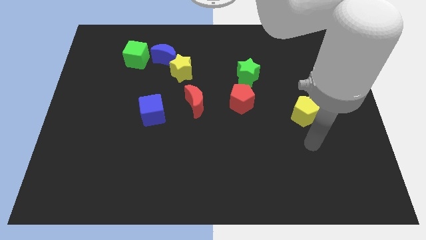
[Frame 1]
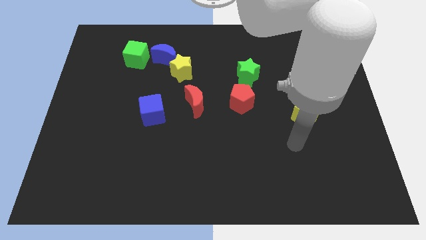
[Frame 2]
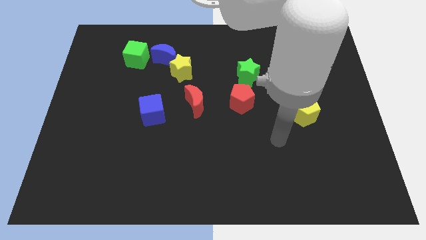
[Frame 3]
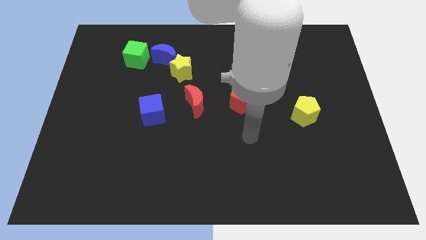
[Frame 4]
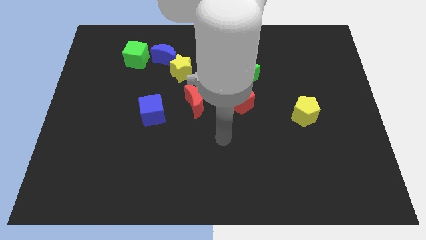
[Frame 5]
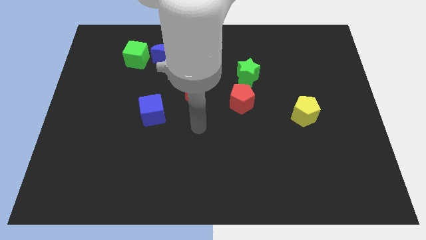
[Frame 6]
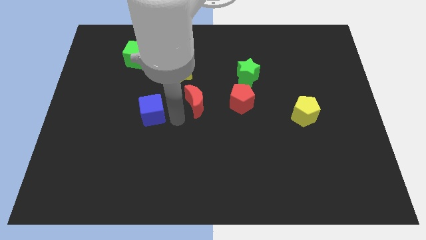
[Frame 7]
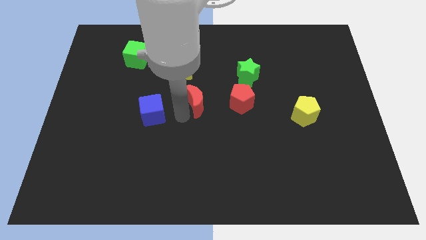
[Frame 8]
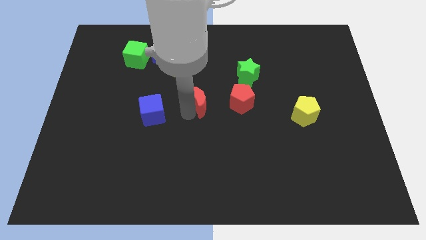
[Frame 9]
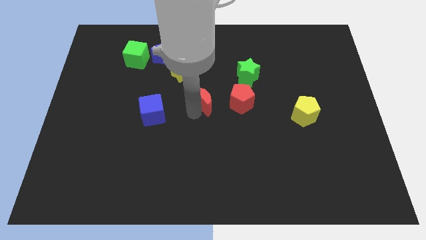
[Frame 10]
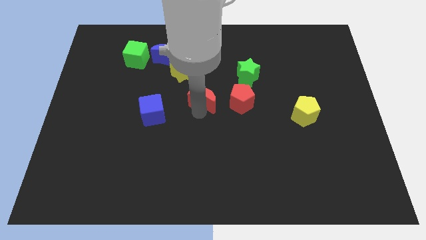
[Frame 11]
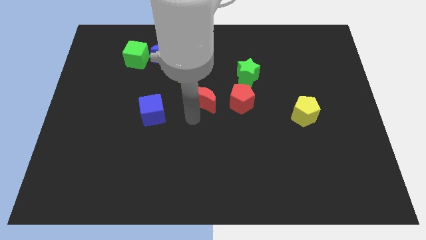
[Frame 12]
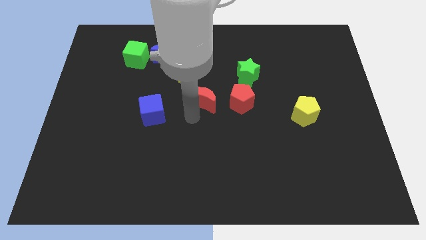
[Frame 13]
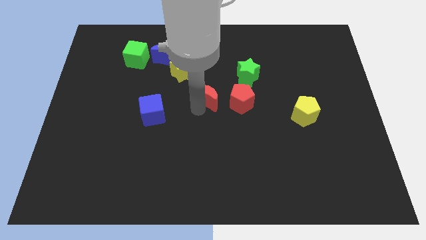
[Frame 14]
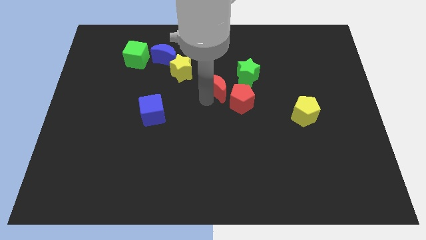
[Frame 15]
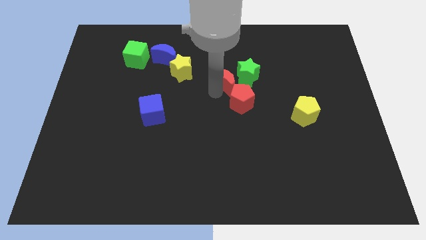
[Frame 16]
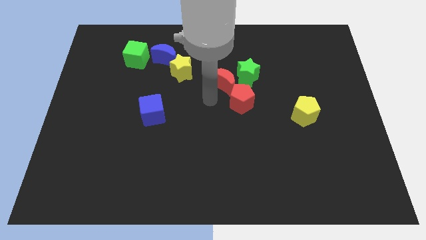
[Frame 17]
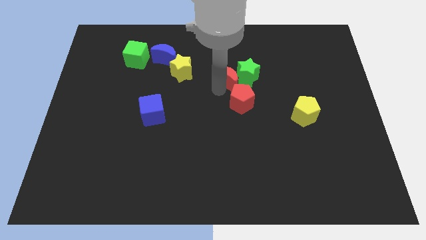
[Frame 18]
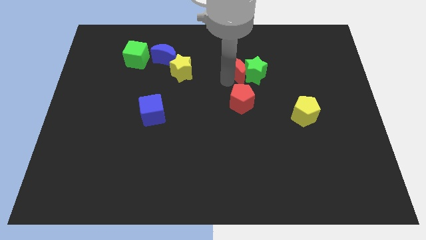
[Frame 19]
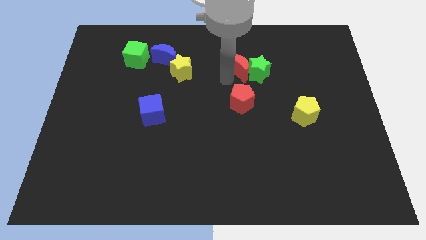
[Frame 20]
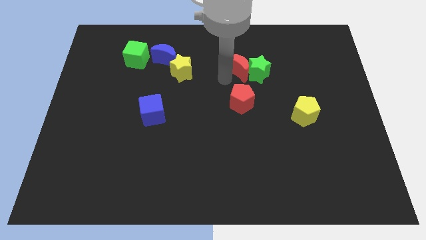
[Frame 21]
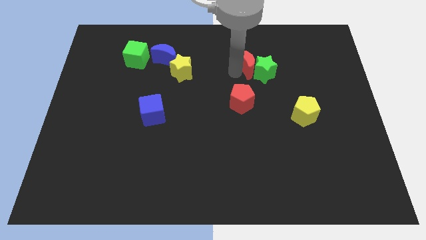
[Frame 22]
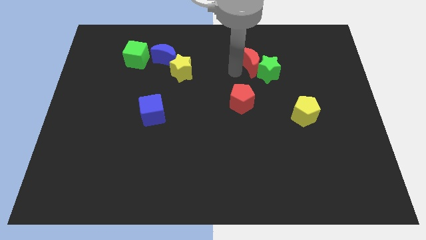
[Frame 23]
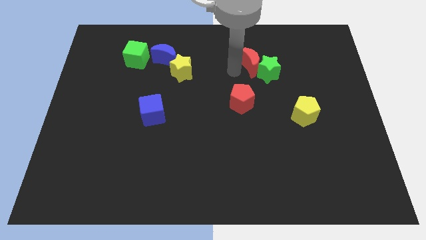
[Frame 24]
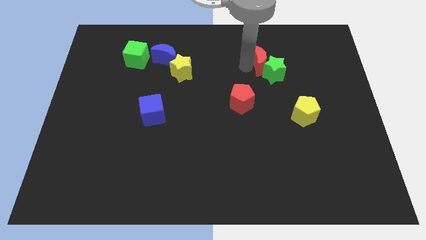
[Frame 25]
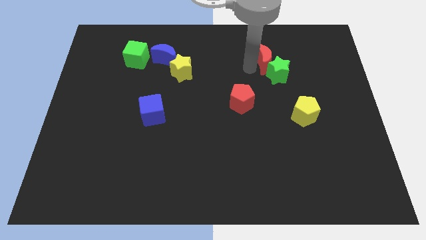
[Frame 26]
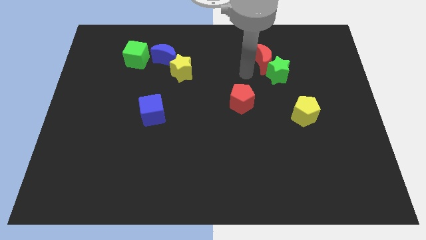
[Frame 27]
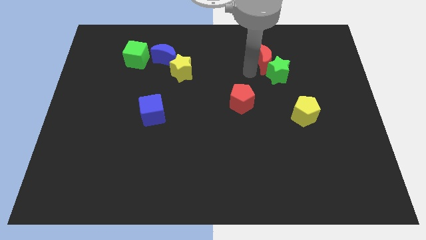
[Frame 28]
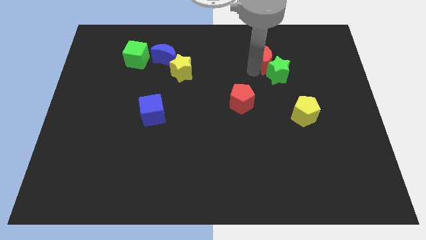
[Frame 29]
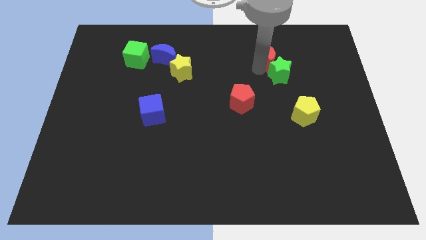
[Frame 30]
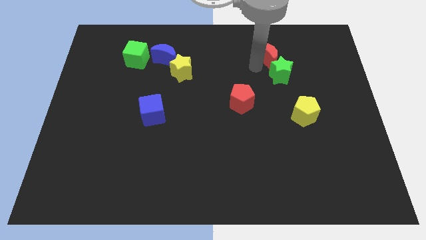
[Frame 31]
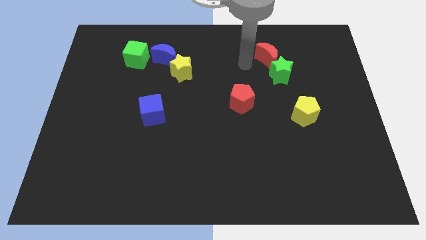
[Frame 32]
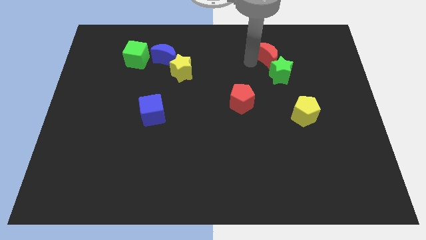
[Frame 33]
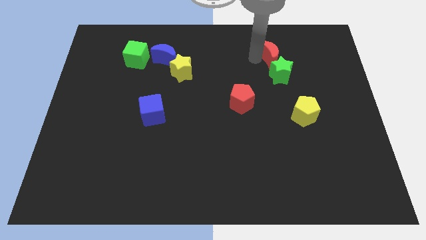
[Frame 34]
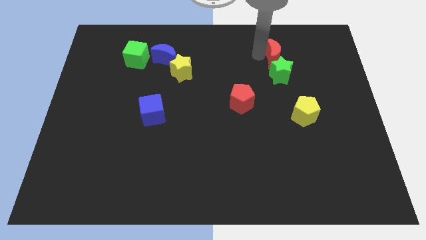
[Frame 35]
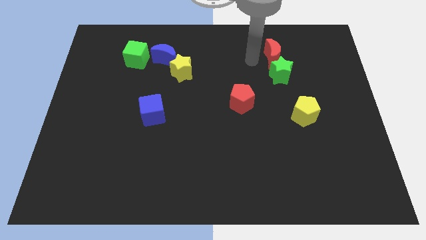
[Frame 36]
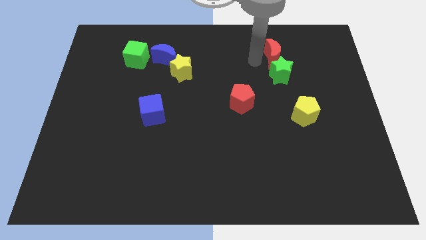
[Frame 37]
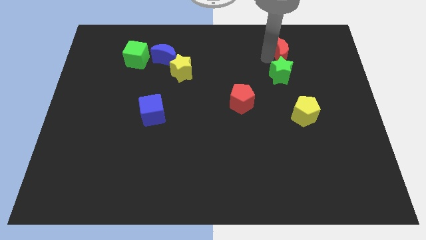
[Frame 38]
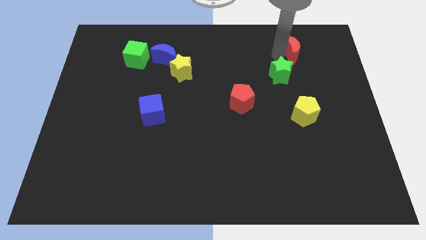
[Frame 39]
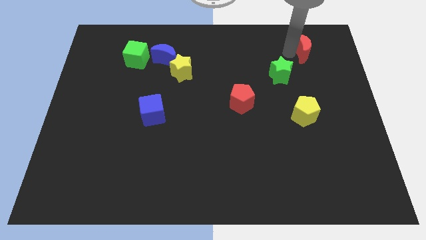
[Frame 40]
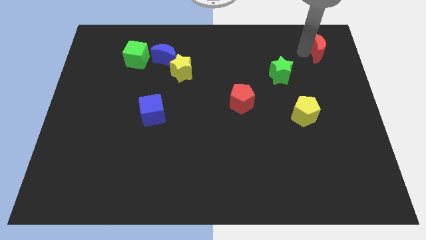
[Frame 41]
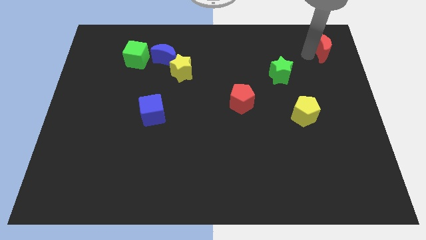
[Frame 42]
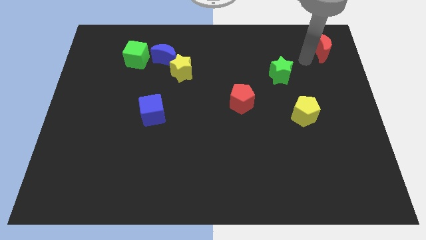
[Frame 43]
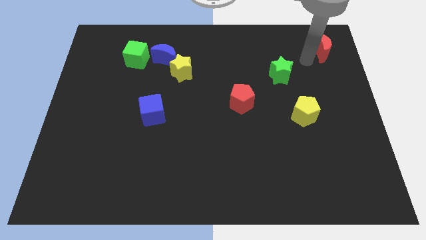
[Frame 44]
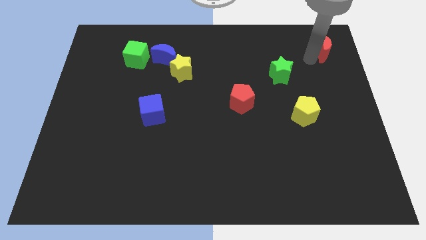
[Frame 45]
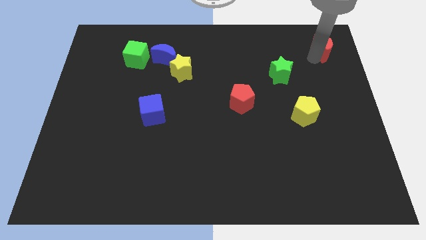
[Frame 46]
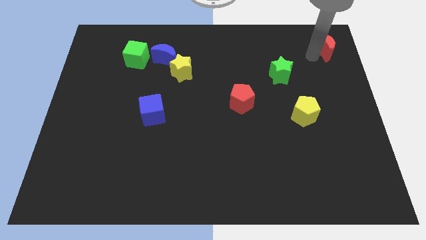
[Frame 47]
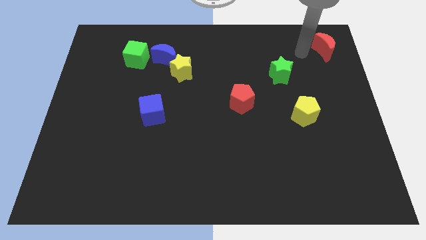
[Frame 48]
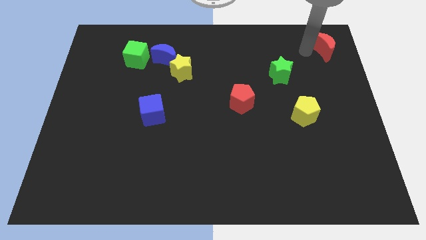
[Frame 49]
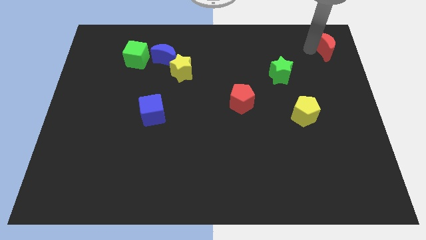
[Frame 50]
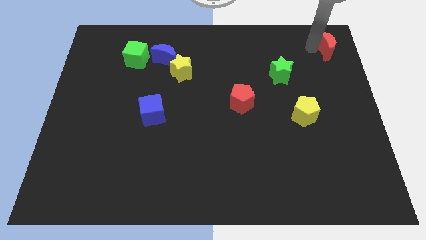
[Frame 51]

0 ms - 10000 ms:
slide the red moon to the top right of the board

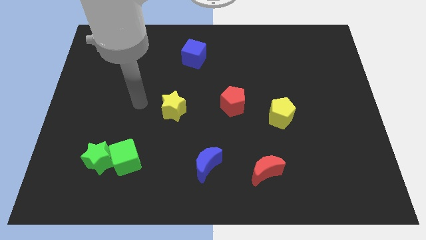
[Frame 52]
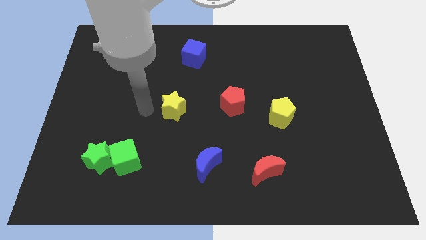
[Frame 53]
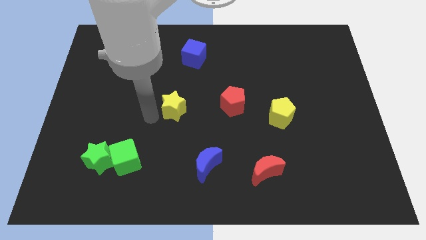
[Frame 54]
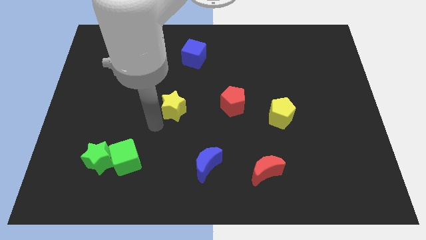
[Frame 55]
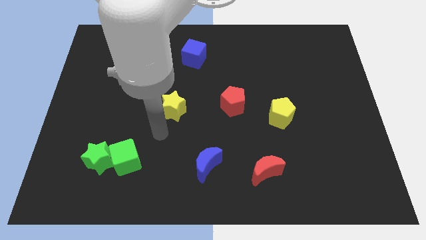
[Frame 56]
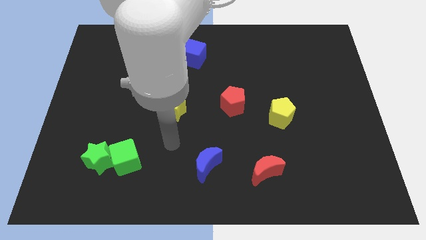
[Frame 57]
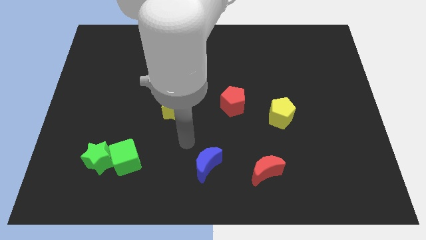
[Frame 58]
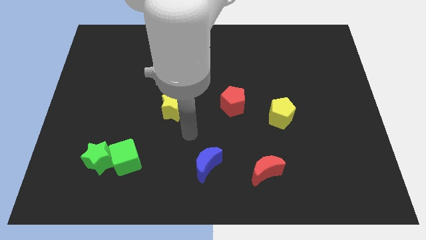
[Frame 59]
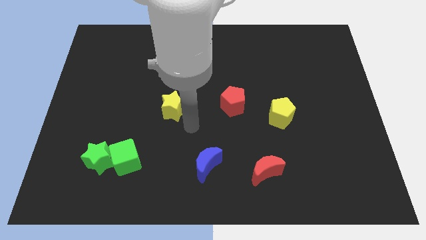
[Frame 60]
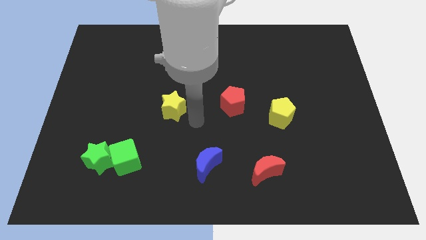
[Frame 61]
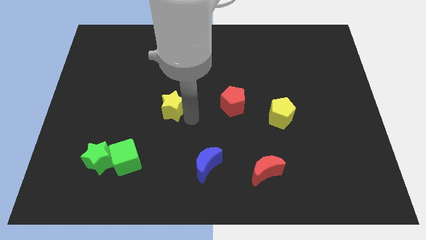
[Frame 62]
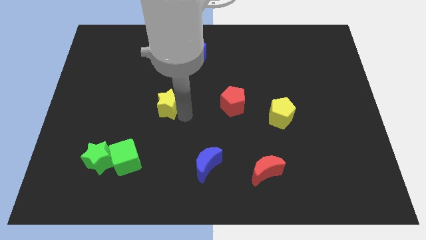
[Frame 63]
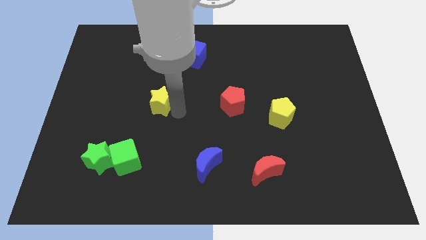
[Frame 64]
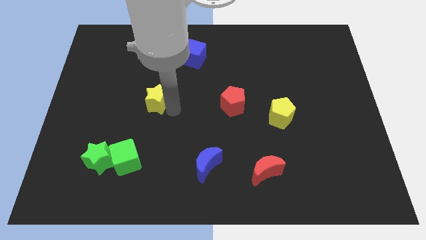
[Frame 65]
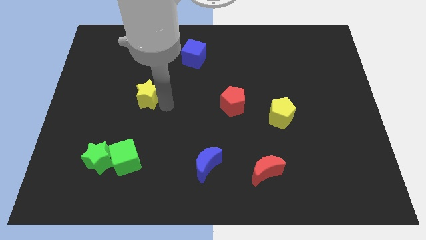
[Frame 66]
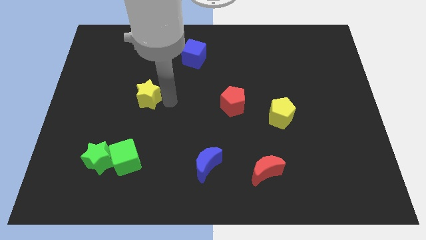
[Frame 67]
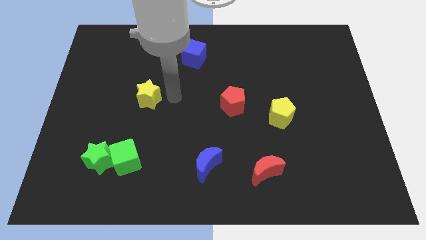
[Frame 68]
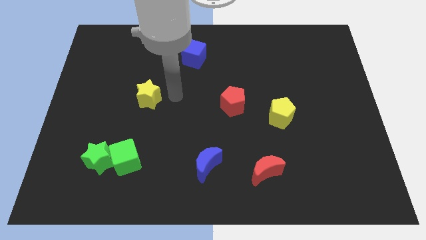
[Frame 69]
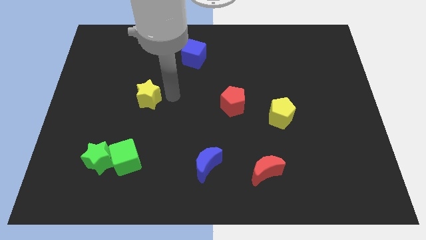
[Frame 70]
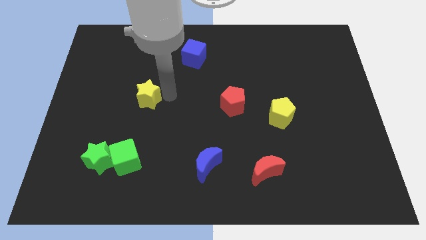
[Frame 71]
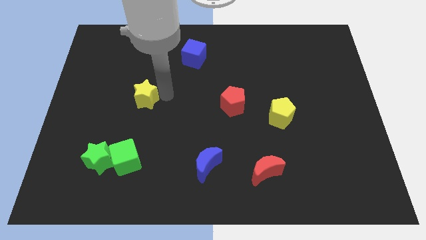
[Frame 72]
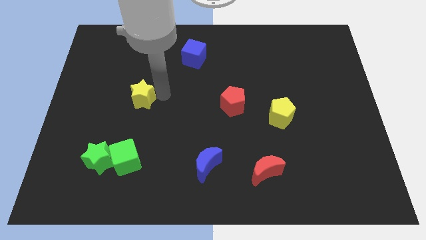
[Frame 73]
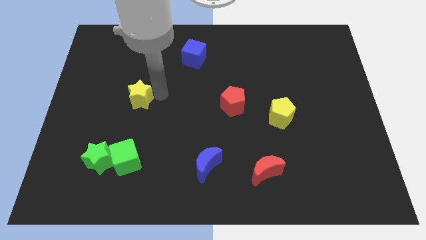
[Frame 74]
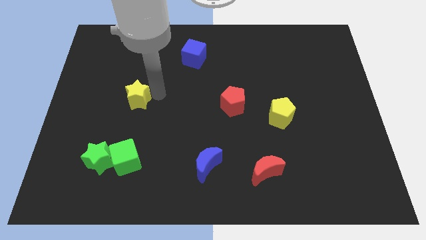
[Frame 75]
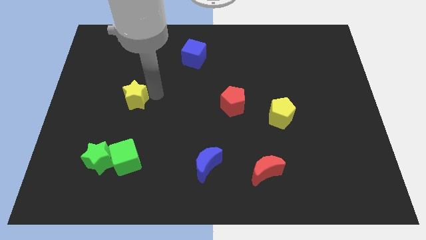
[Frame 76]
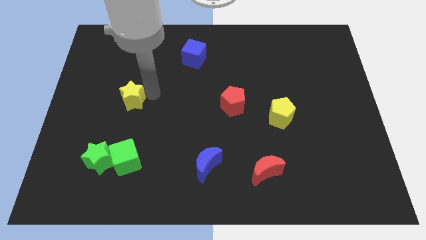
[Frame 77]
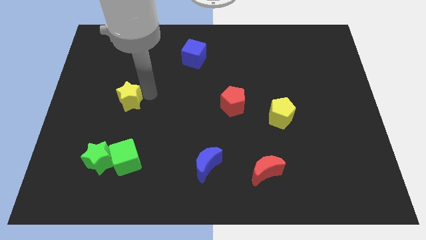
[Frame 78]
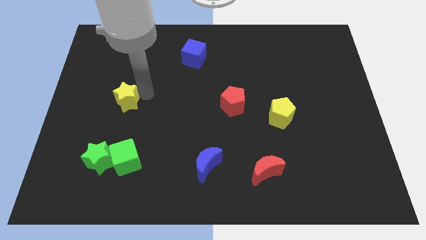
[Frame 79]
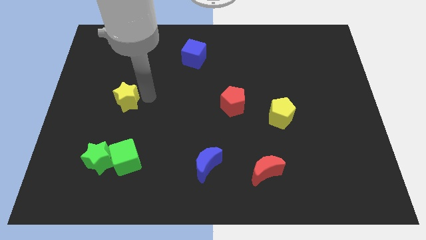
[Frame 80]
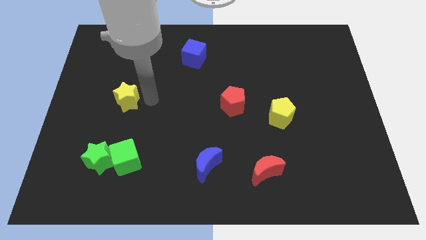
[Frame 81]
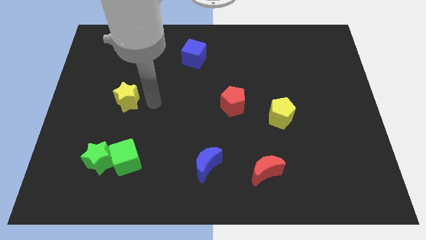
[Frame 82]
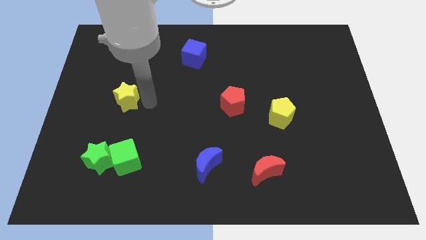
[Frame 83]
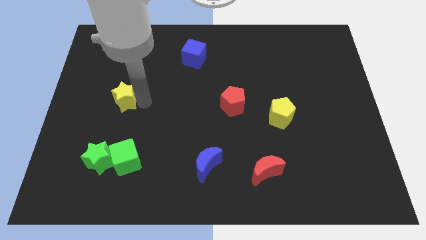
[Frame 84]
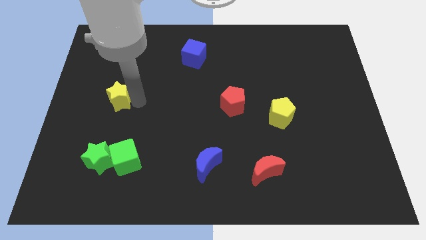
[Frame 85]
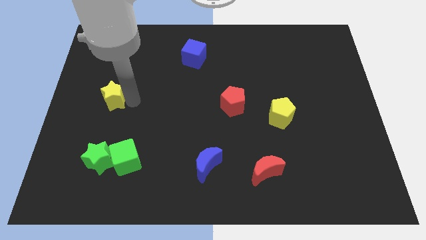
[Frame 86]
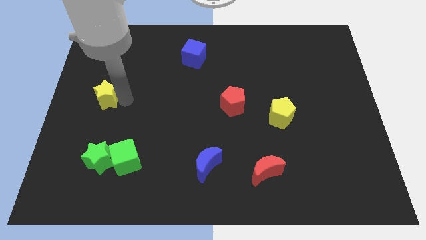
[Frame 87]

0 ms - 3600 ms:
push the yellow star to the left side of the board
